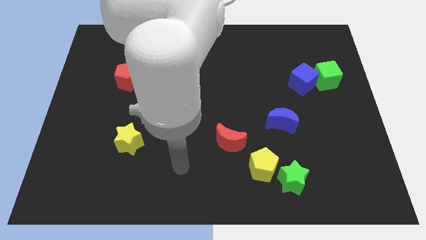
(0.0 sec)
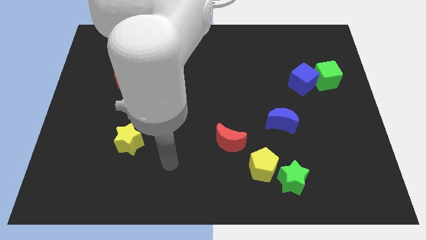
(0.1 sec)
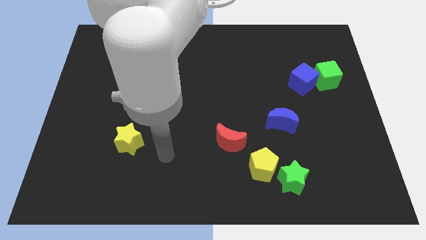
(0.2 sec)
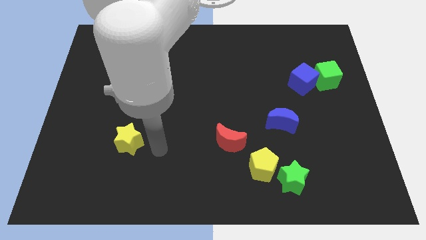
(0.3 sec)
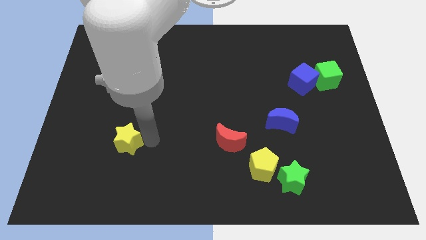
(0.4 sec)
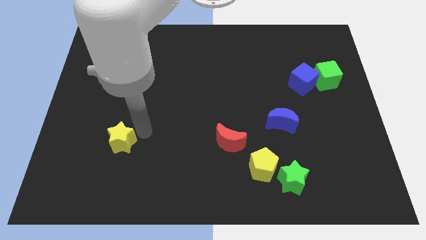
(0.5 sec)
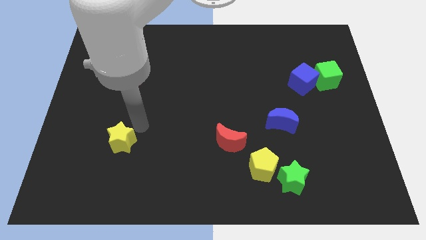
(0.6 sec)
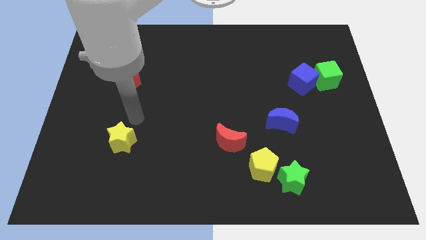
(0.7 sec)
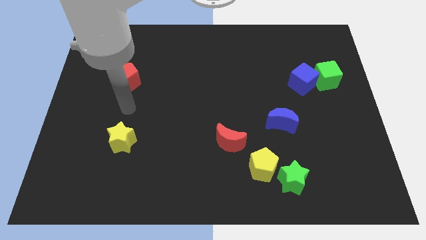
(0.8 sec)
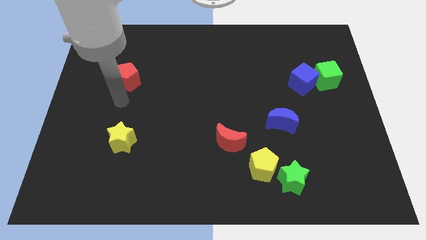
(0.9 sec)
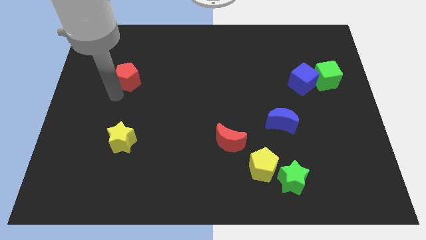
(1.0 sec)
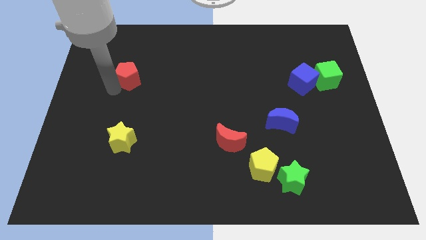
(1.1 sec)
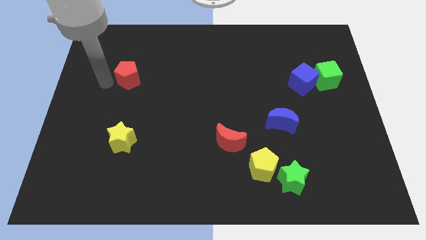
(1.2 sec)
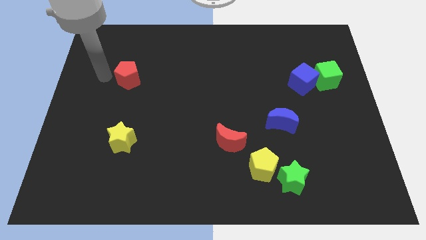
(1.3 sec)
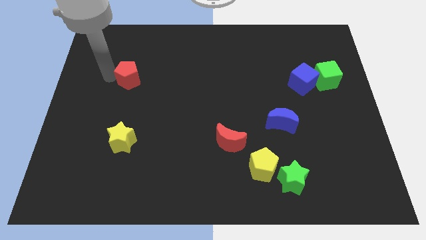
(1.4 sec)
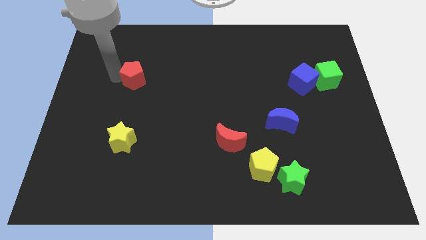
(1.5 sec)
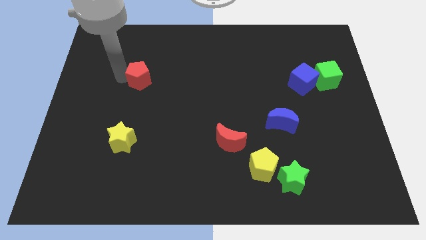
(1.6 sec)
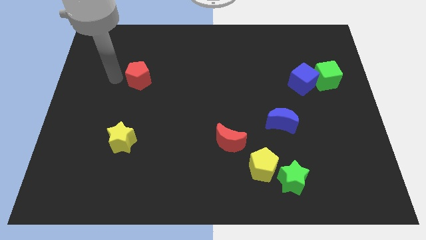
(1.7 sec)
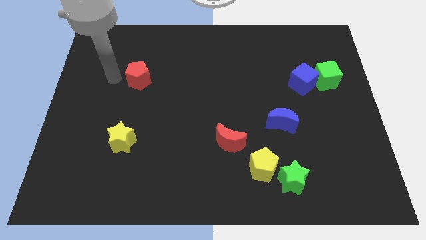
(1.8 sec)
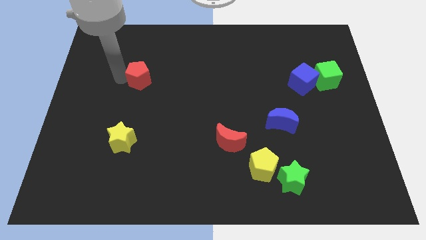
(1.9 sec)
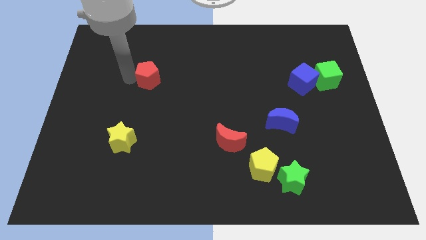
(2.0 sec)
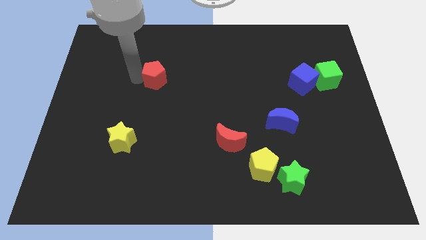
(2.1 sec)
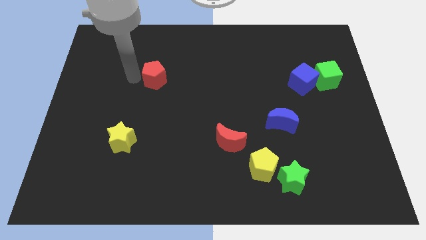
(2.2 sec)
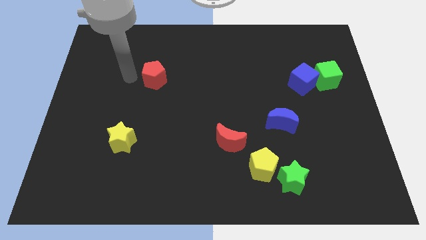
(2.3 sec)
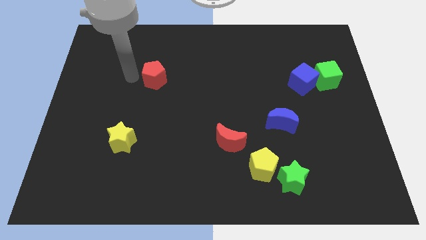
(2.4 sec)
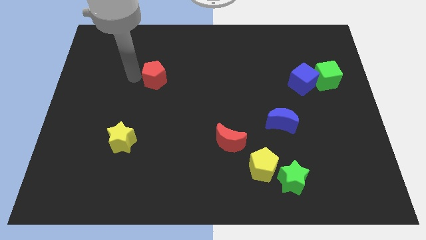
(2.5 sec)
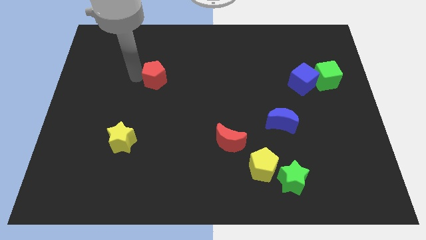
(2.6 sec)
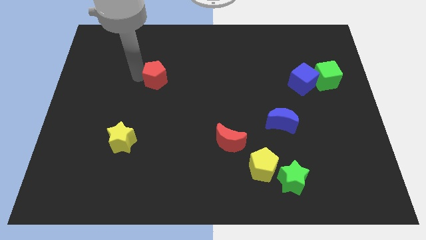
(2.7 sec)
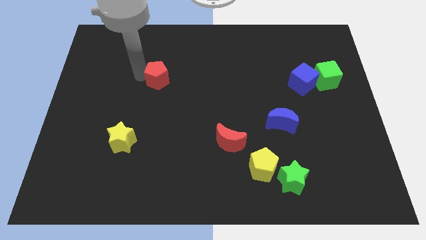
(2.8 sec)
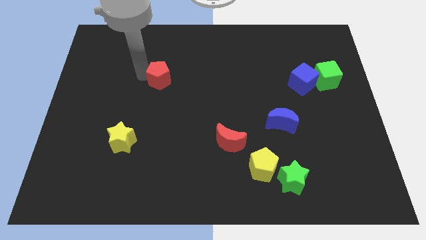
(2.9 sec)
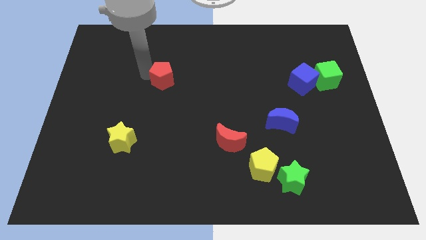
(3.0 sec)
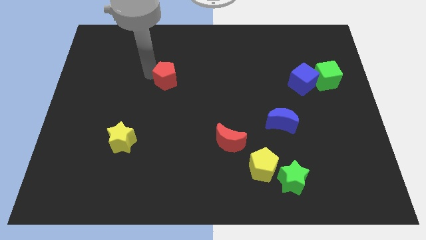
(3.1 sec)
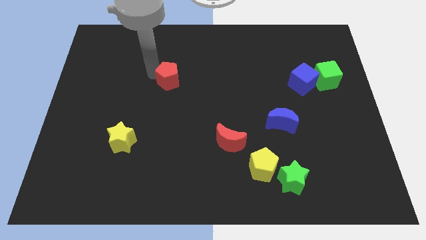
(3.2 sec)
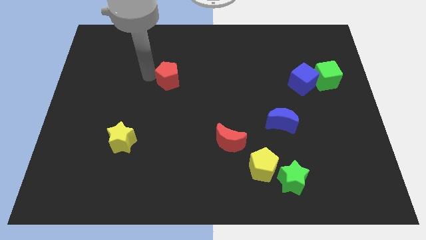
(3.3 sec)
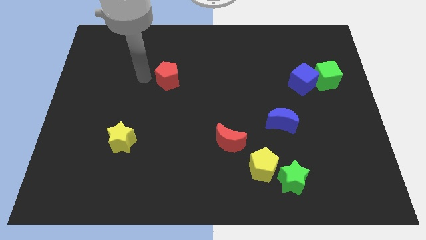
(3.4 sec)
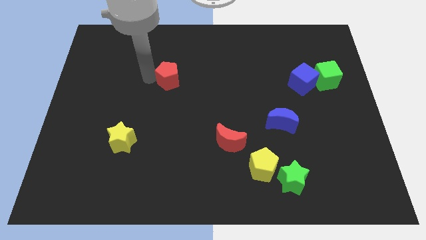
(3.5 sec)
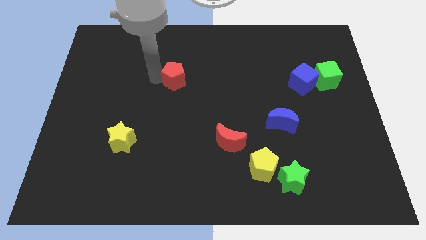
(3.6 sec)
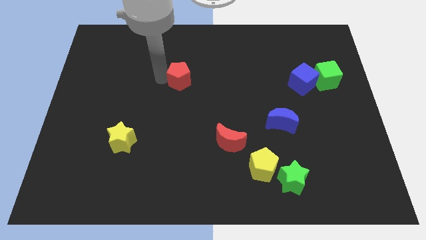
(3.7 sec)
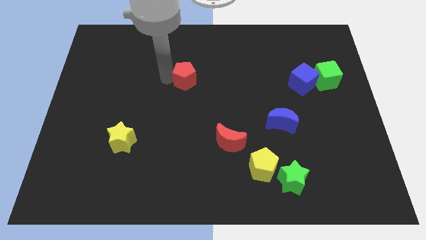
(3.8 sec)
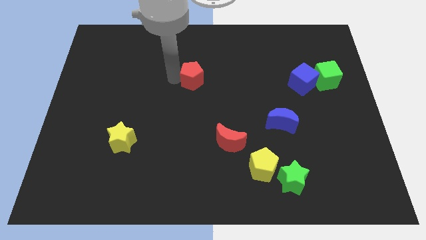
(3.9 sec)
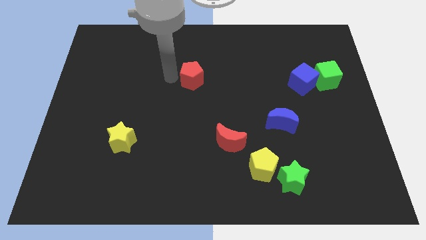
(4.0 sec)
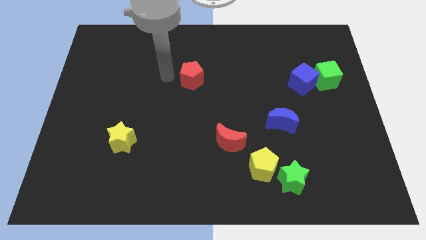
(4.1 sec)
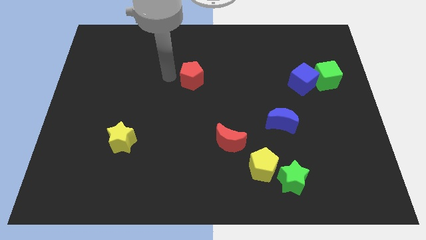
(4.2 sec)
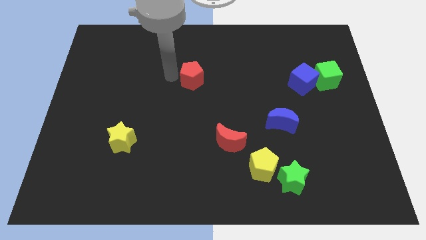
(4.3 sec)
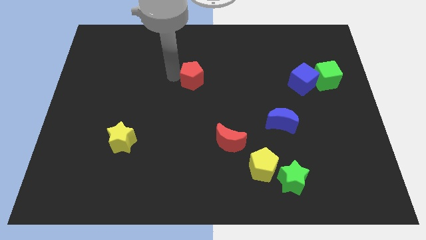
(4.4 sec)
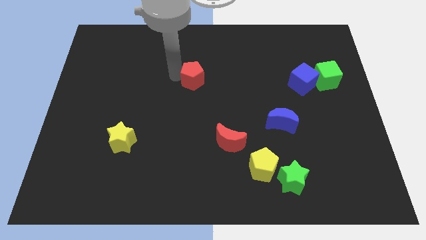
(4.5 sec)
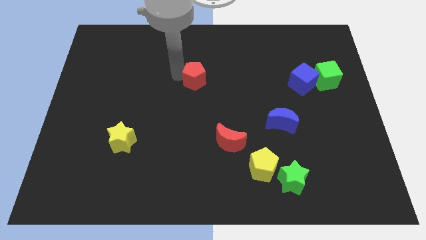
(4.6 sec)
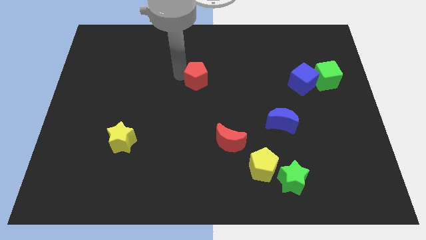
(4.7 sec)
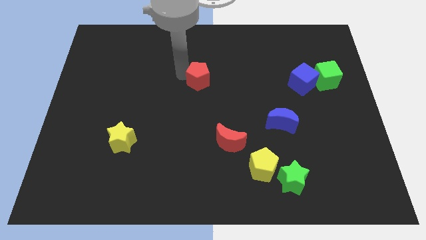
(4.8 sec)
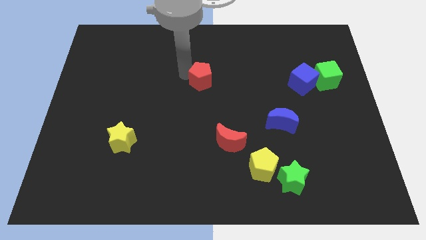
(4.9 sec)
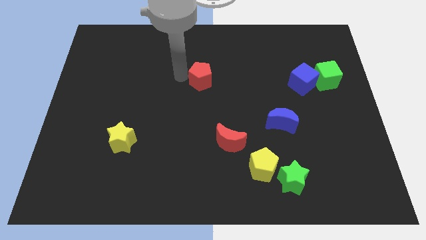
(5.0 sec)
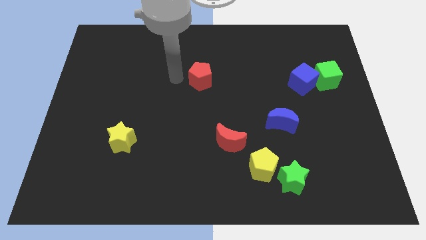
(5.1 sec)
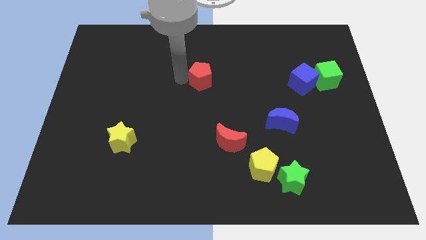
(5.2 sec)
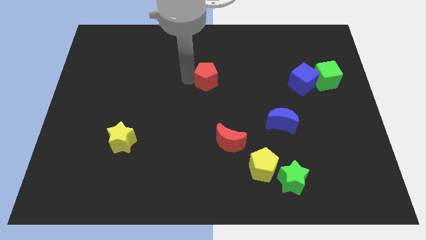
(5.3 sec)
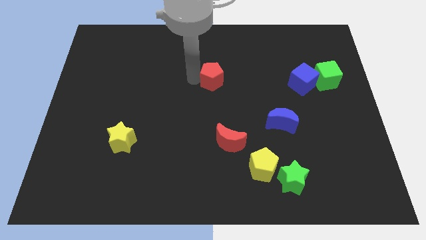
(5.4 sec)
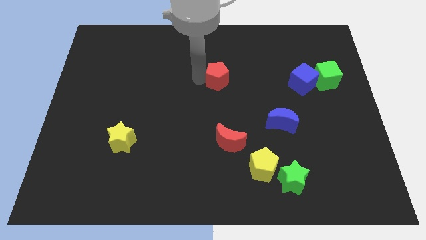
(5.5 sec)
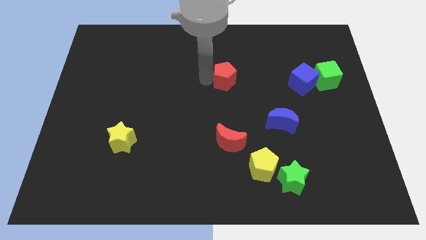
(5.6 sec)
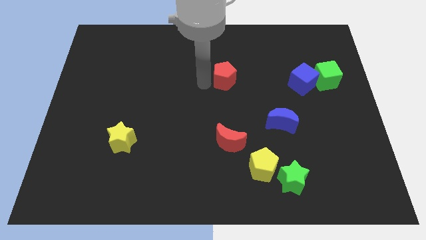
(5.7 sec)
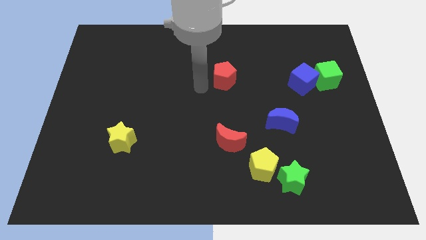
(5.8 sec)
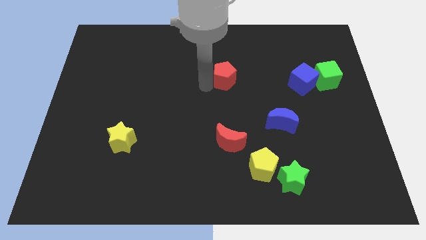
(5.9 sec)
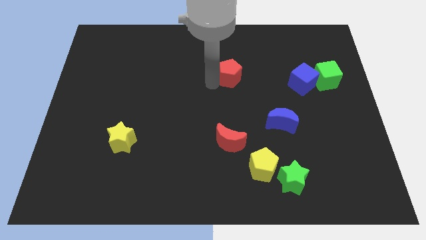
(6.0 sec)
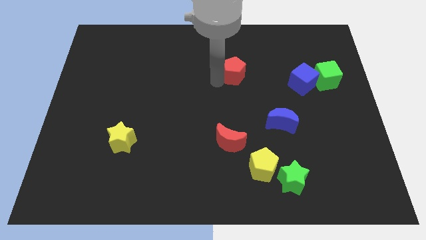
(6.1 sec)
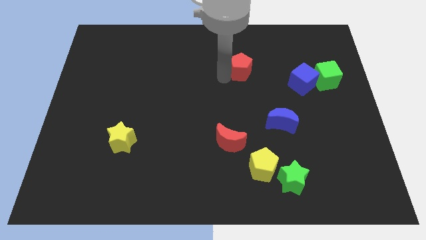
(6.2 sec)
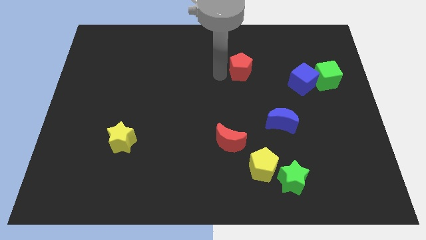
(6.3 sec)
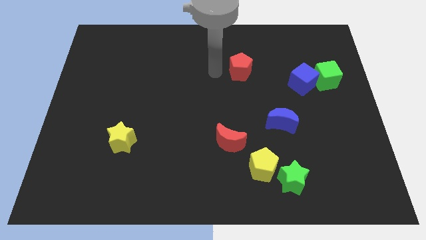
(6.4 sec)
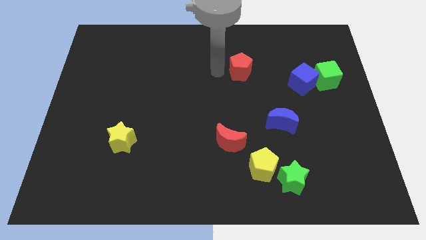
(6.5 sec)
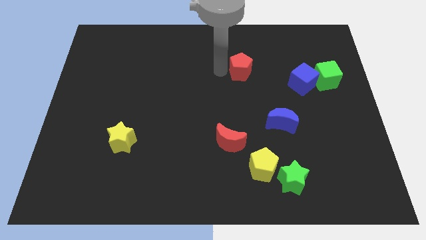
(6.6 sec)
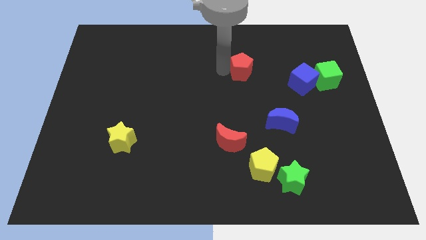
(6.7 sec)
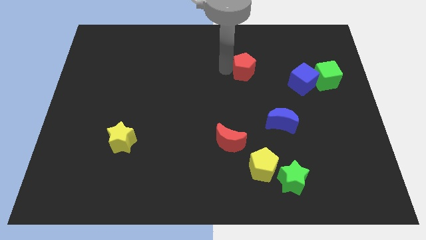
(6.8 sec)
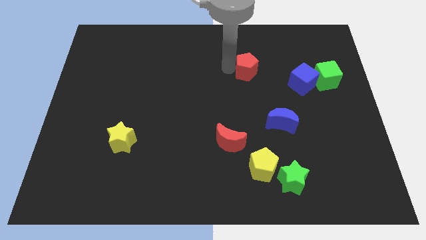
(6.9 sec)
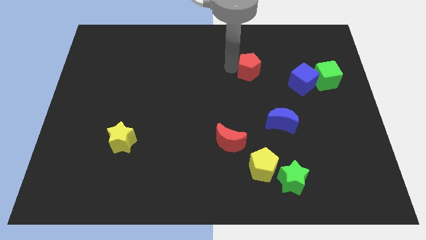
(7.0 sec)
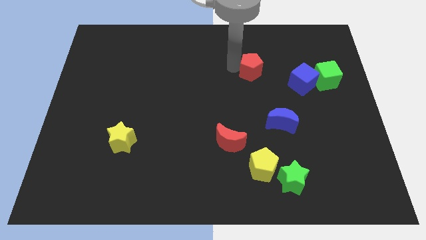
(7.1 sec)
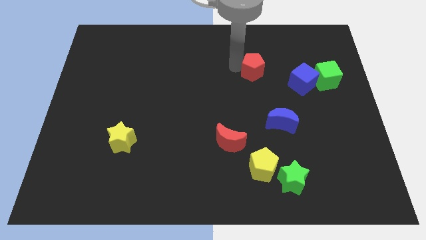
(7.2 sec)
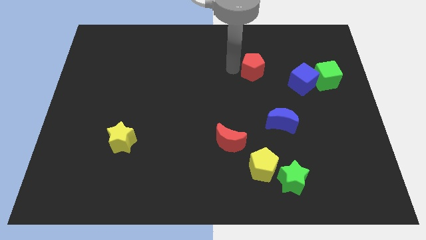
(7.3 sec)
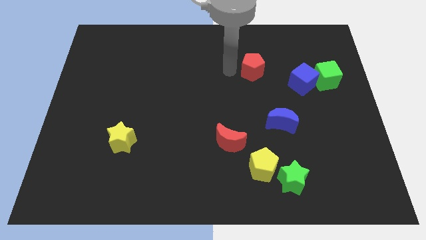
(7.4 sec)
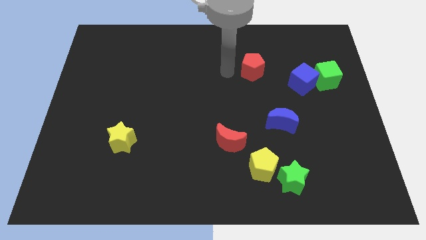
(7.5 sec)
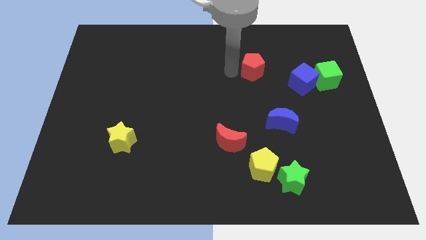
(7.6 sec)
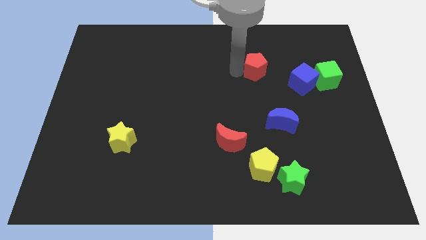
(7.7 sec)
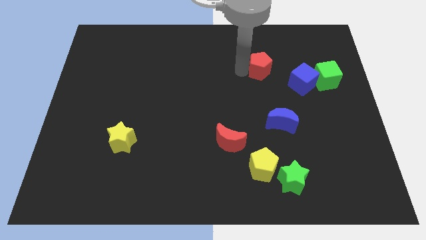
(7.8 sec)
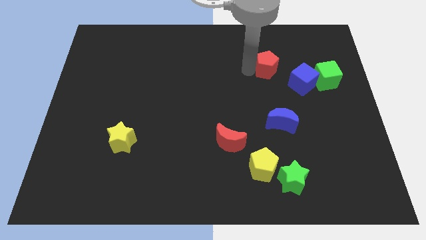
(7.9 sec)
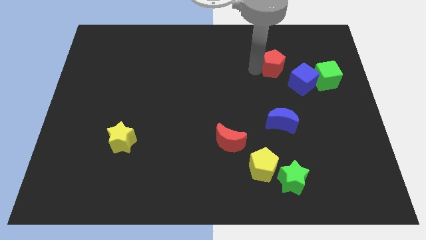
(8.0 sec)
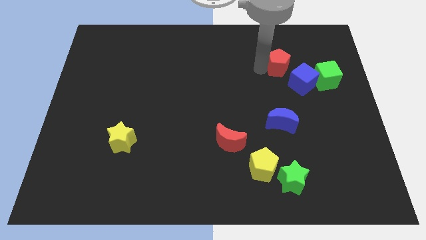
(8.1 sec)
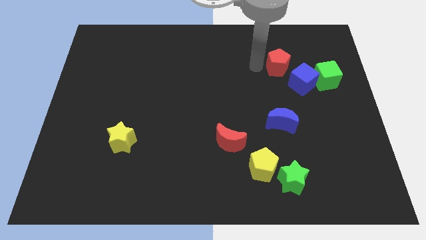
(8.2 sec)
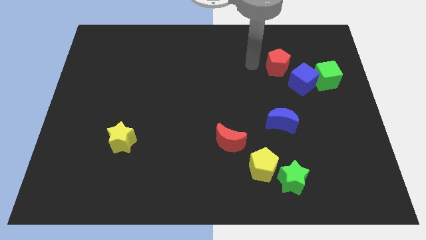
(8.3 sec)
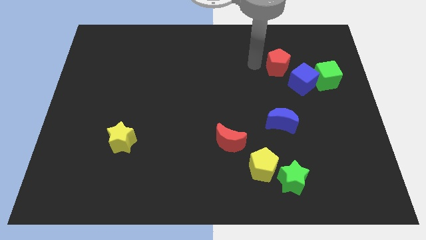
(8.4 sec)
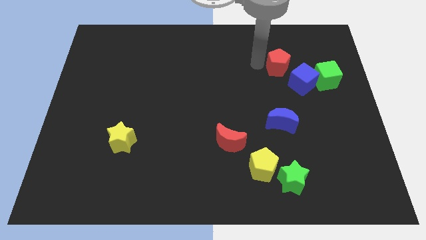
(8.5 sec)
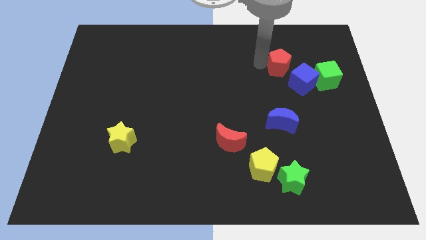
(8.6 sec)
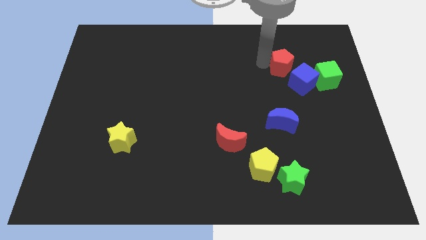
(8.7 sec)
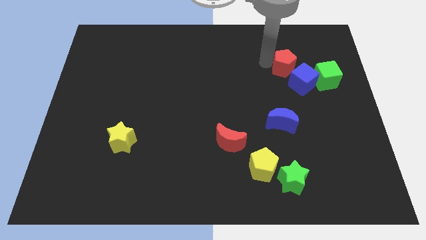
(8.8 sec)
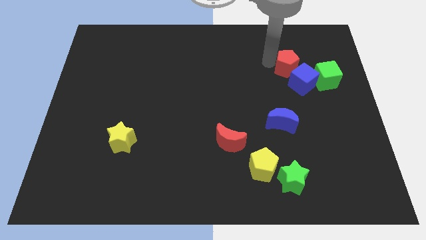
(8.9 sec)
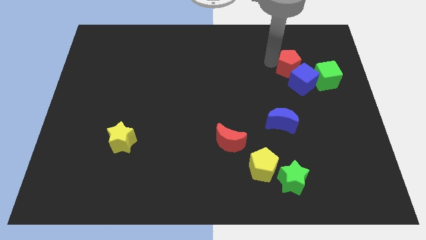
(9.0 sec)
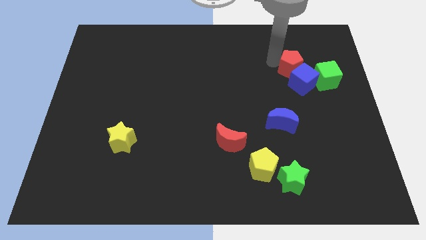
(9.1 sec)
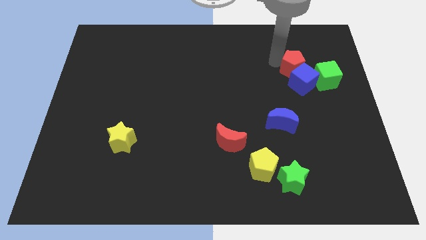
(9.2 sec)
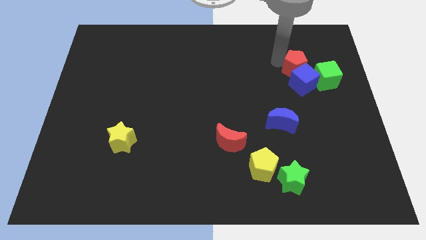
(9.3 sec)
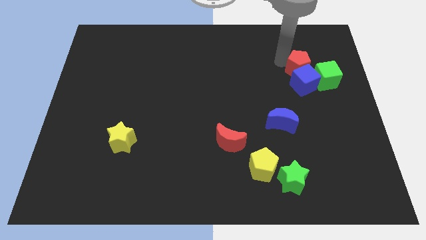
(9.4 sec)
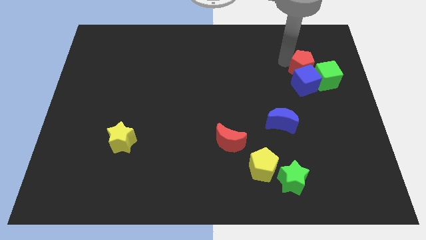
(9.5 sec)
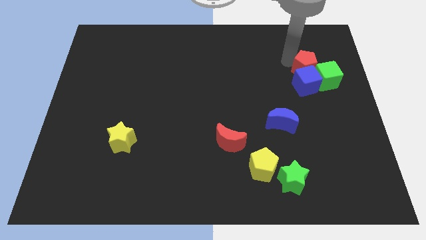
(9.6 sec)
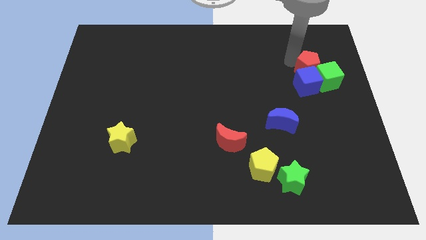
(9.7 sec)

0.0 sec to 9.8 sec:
move the red pentagon next to the green cube
